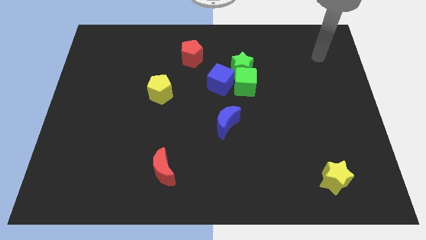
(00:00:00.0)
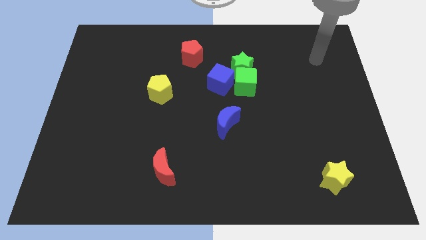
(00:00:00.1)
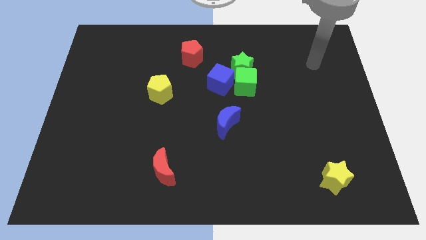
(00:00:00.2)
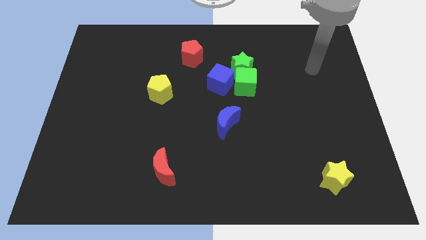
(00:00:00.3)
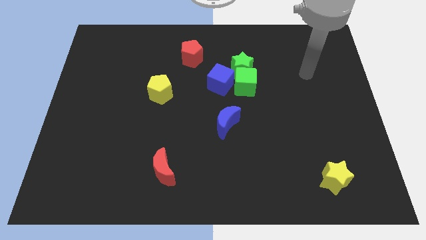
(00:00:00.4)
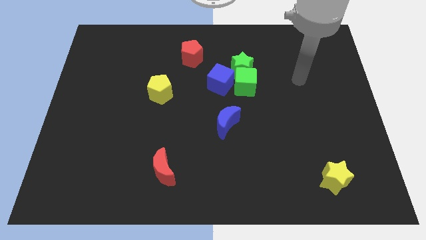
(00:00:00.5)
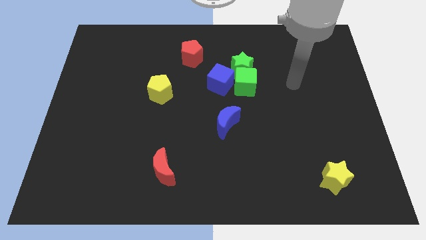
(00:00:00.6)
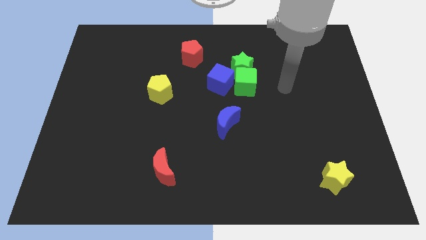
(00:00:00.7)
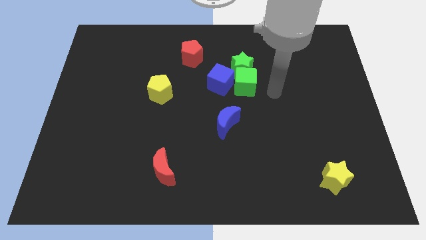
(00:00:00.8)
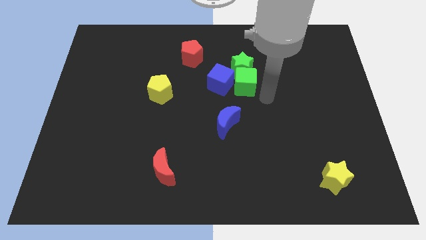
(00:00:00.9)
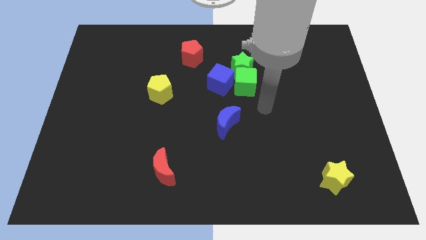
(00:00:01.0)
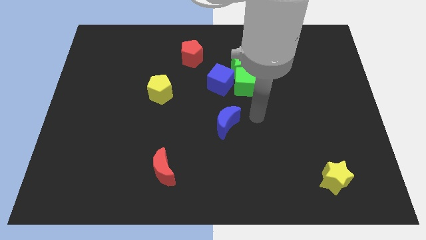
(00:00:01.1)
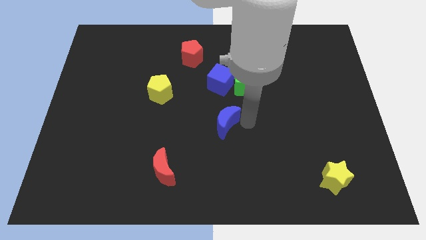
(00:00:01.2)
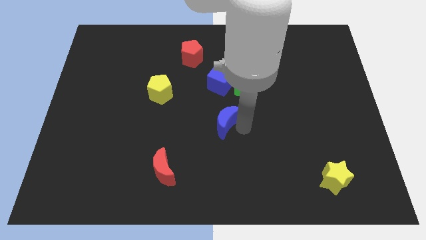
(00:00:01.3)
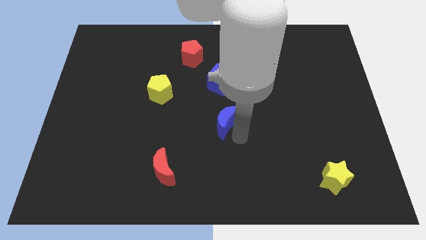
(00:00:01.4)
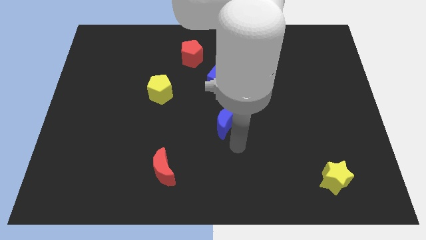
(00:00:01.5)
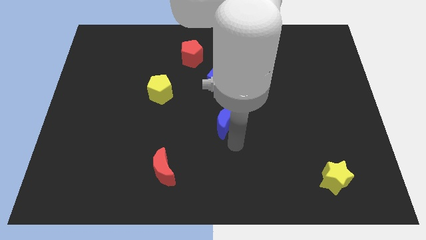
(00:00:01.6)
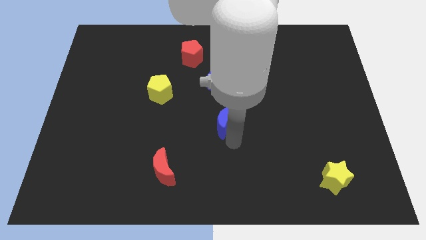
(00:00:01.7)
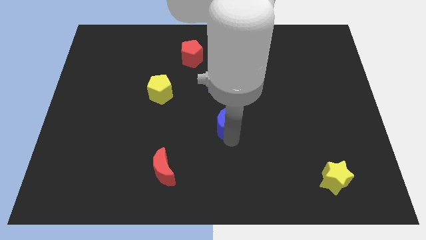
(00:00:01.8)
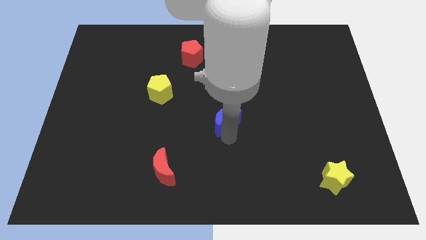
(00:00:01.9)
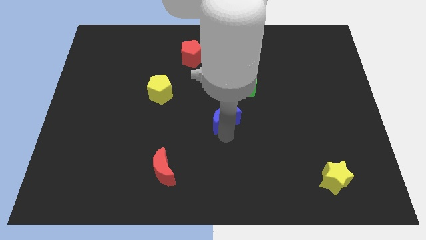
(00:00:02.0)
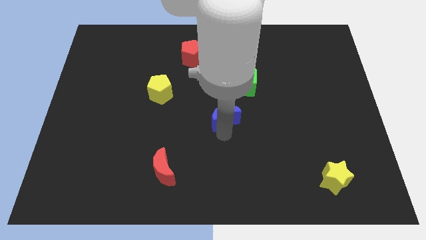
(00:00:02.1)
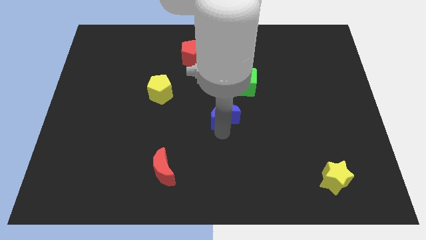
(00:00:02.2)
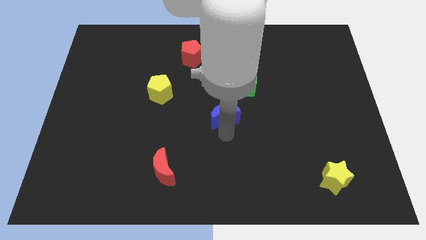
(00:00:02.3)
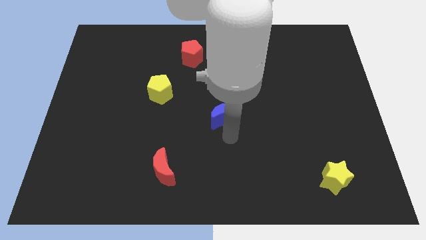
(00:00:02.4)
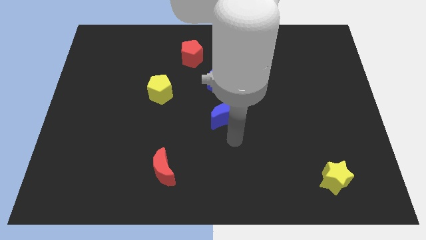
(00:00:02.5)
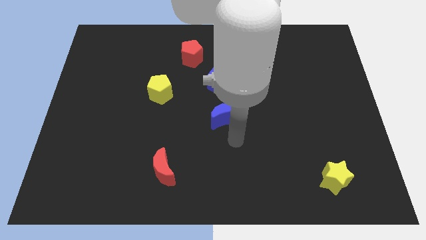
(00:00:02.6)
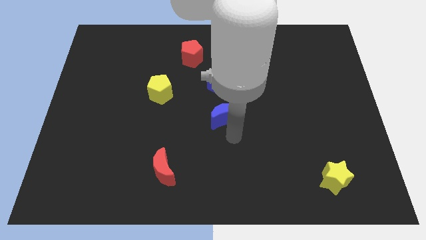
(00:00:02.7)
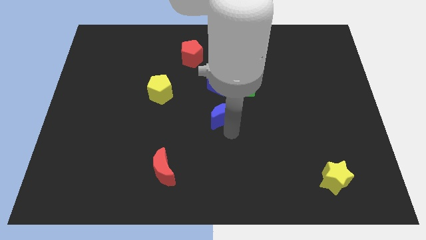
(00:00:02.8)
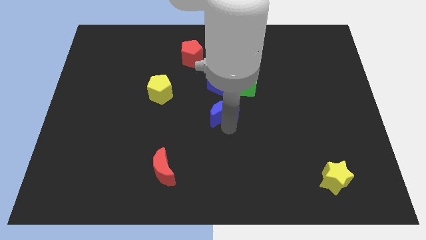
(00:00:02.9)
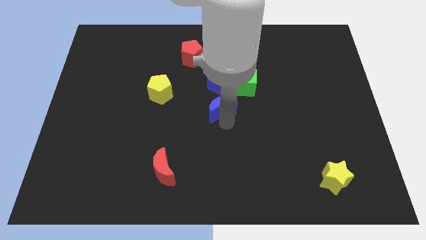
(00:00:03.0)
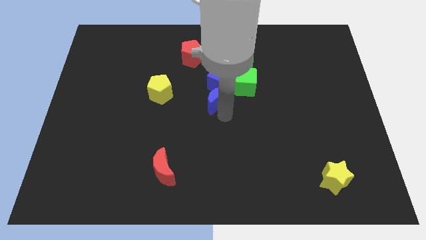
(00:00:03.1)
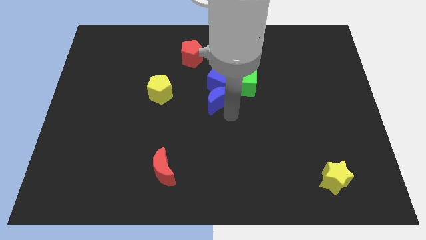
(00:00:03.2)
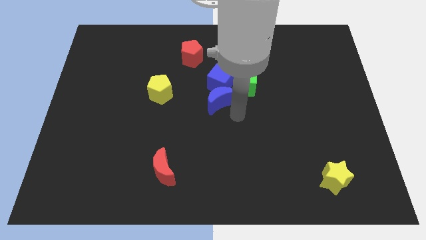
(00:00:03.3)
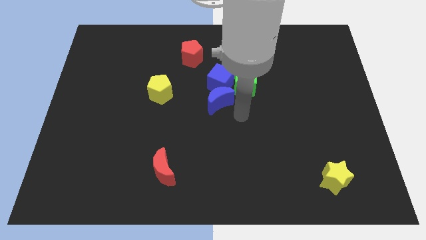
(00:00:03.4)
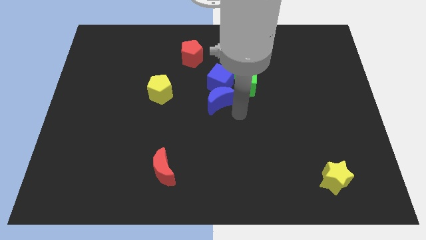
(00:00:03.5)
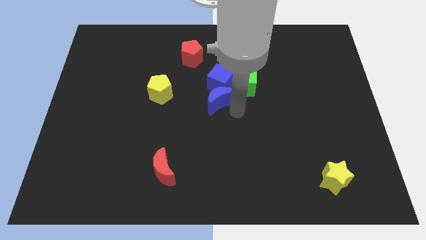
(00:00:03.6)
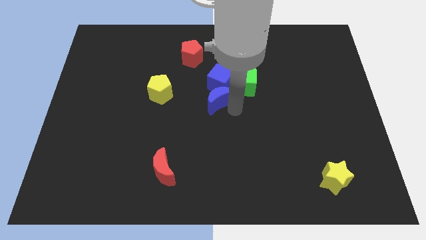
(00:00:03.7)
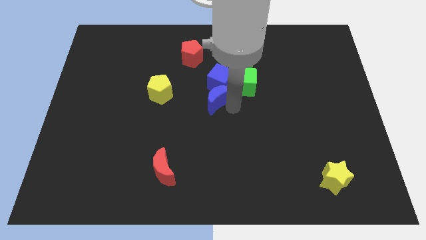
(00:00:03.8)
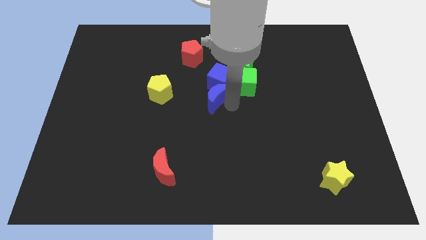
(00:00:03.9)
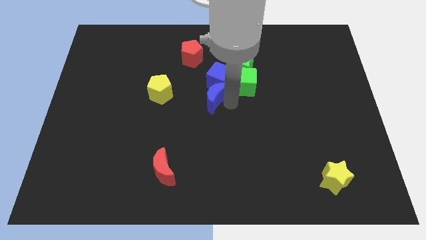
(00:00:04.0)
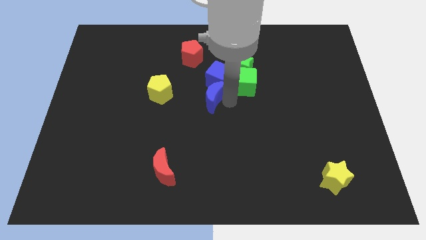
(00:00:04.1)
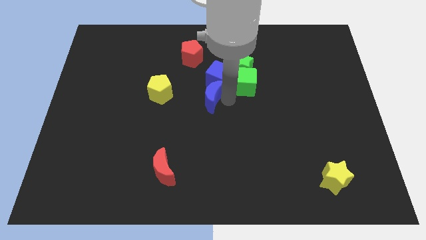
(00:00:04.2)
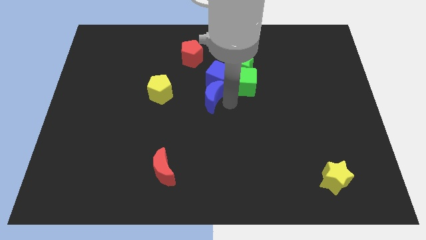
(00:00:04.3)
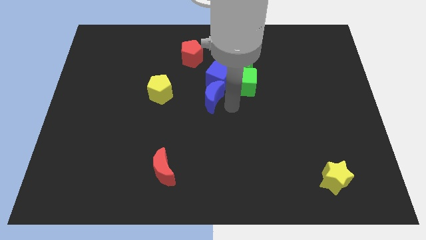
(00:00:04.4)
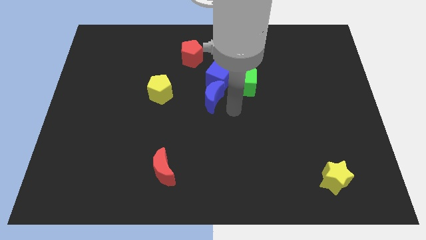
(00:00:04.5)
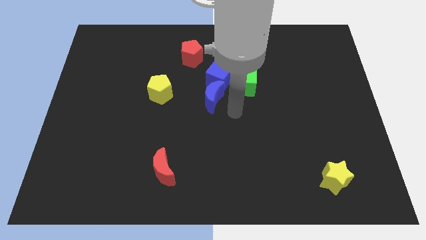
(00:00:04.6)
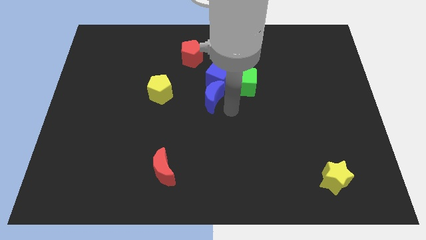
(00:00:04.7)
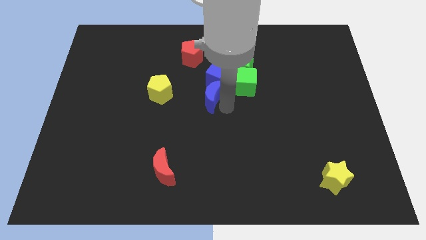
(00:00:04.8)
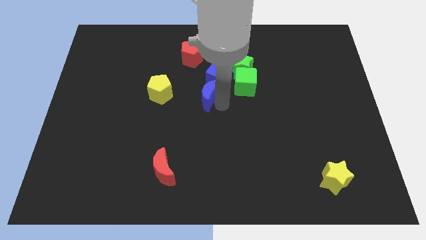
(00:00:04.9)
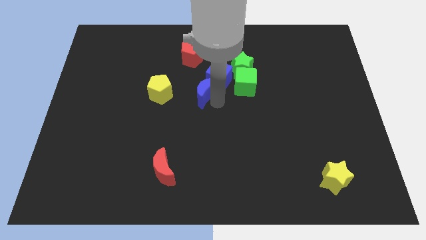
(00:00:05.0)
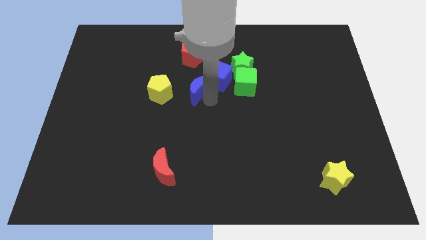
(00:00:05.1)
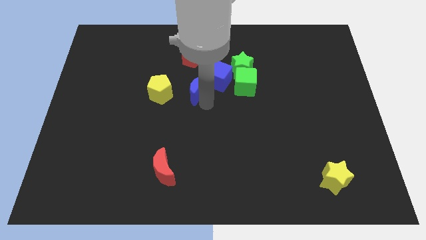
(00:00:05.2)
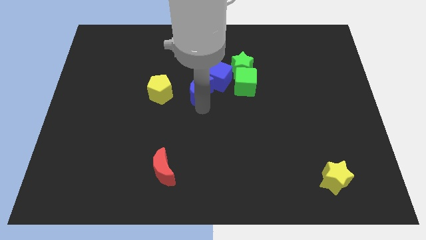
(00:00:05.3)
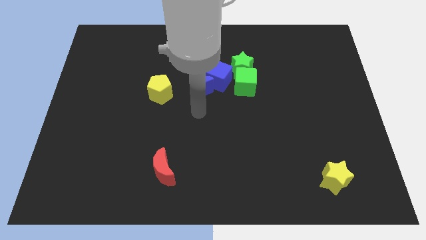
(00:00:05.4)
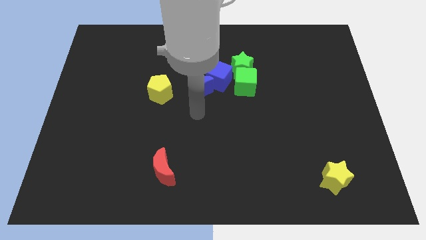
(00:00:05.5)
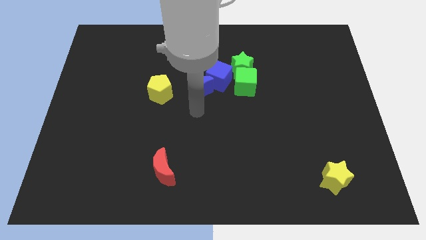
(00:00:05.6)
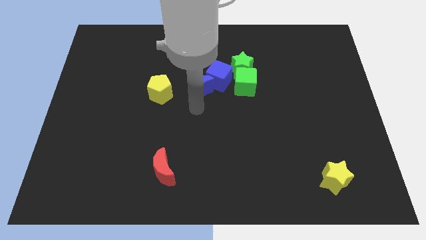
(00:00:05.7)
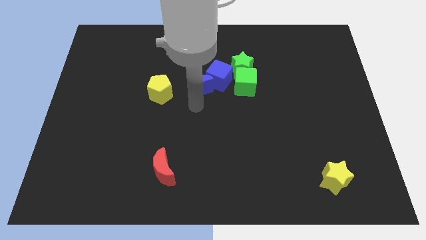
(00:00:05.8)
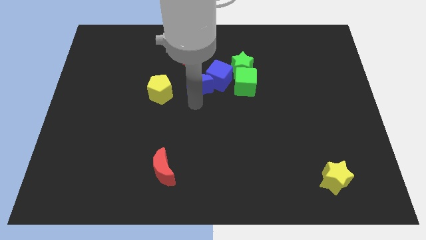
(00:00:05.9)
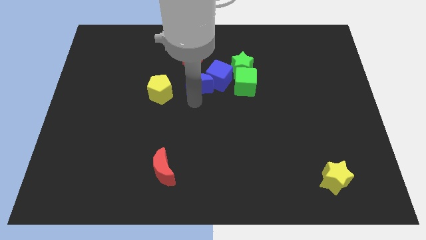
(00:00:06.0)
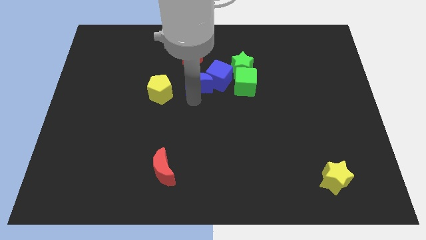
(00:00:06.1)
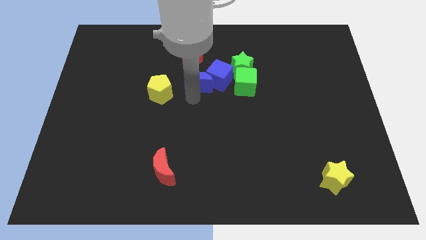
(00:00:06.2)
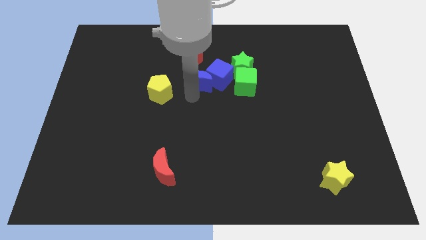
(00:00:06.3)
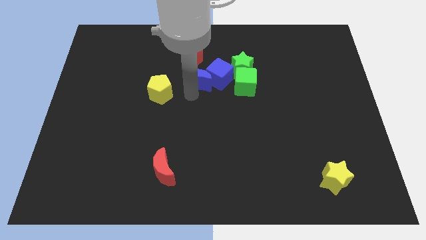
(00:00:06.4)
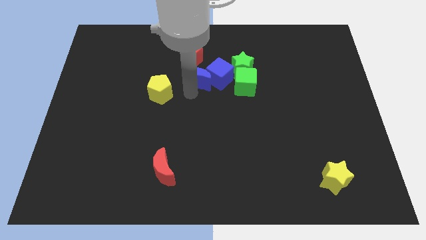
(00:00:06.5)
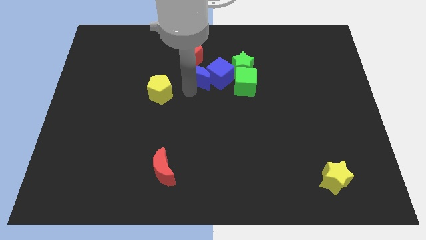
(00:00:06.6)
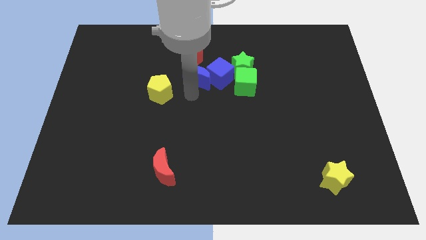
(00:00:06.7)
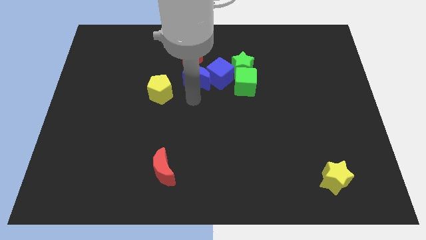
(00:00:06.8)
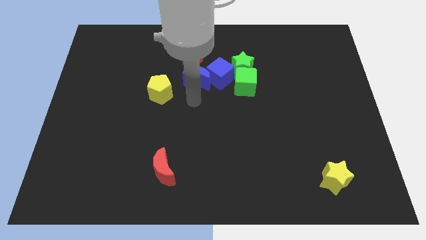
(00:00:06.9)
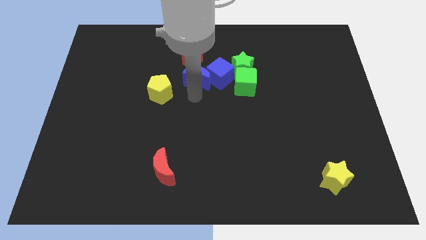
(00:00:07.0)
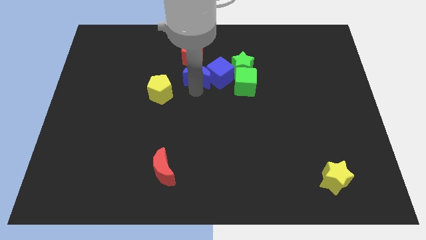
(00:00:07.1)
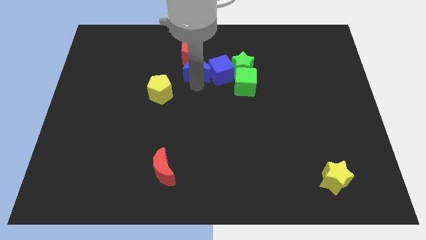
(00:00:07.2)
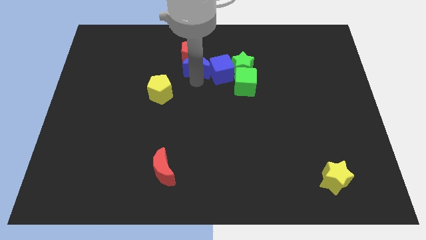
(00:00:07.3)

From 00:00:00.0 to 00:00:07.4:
slide the blue moon close to the red pentagon
